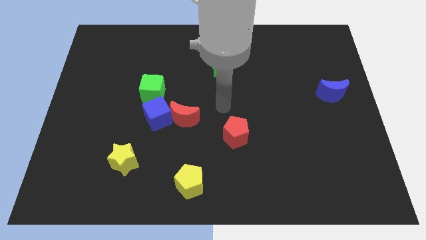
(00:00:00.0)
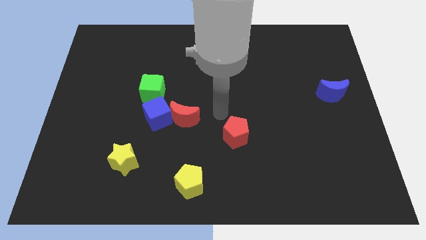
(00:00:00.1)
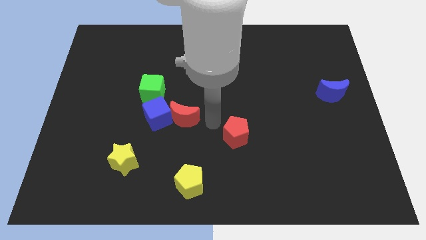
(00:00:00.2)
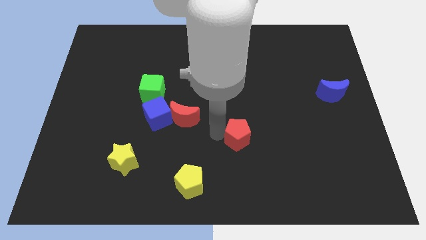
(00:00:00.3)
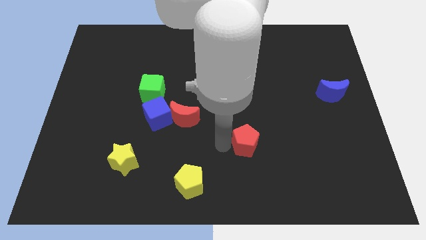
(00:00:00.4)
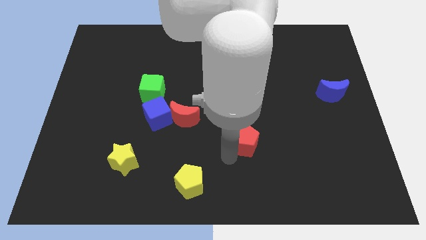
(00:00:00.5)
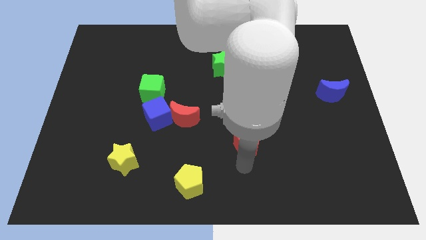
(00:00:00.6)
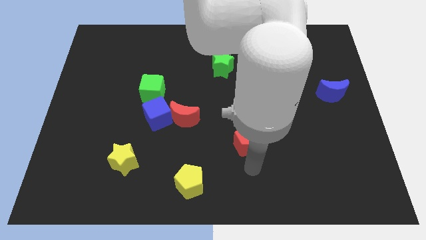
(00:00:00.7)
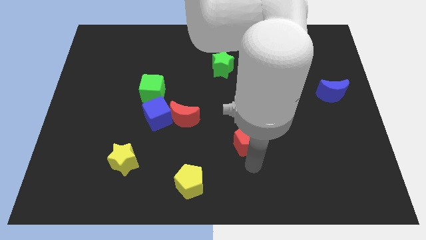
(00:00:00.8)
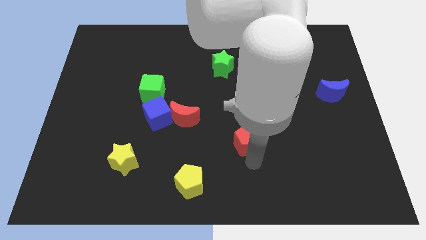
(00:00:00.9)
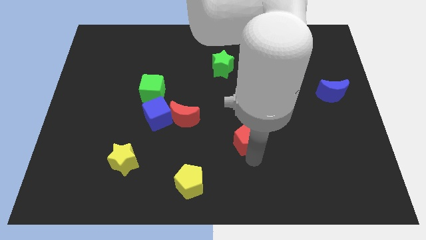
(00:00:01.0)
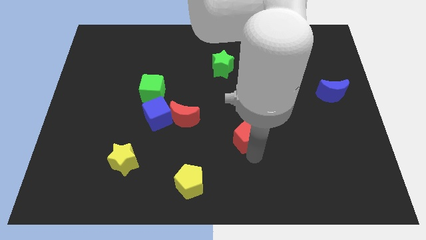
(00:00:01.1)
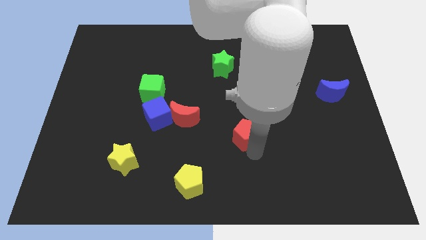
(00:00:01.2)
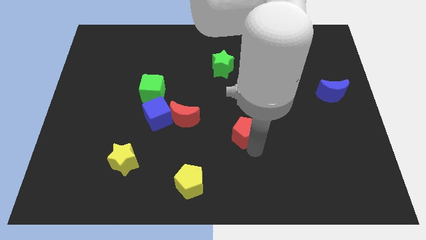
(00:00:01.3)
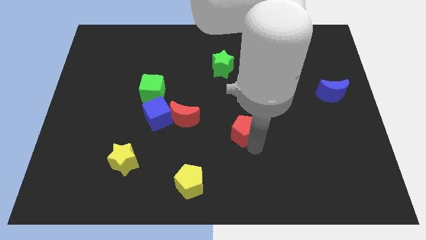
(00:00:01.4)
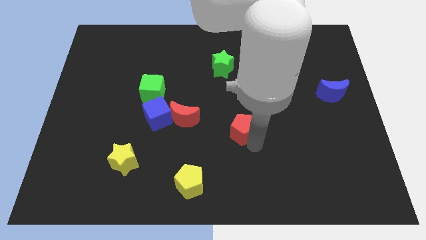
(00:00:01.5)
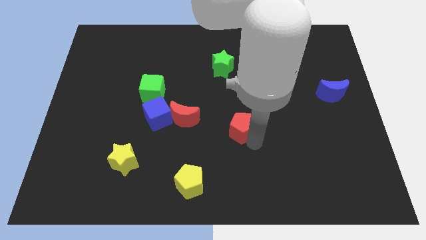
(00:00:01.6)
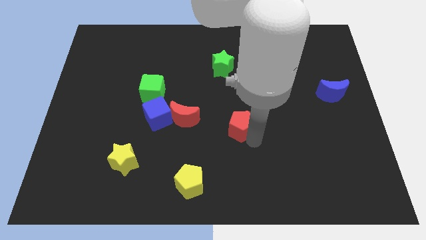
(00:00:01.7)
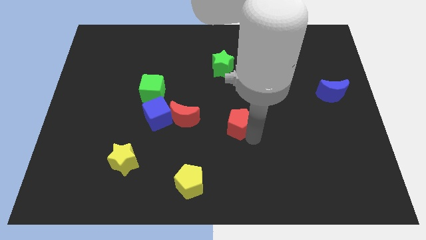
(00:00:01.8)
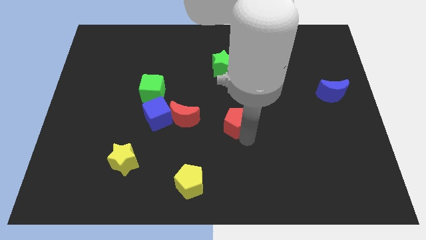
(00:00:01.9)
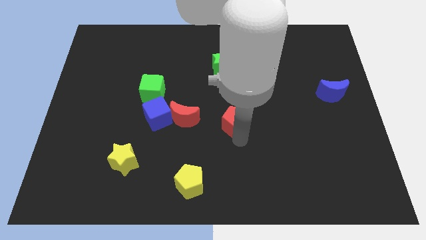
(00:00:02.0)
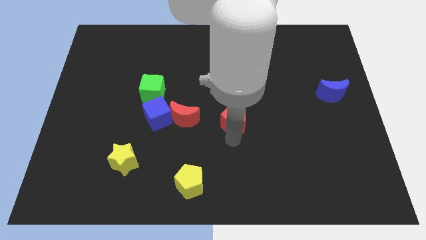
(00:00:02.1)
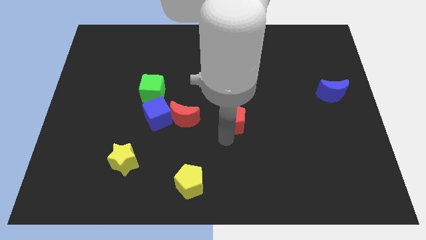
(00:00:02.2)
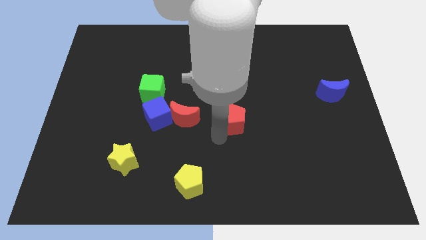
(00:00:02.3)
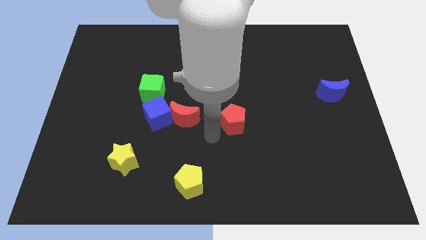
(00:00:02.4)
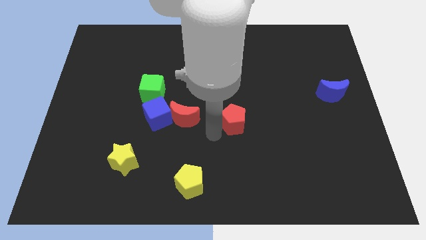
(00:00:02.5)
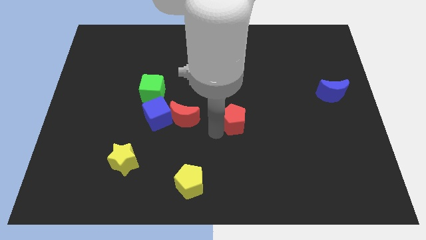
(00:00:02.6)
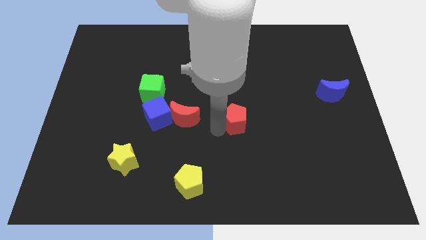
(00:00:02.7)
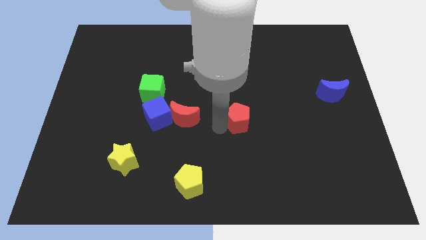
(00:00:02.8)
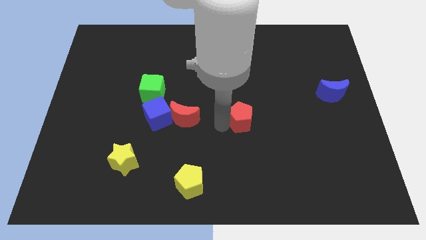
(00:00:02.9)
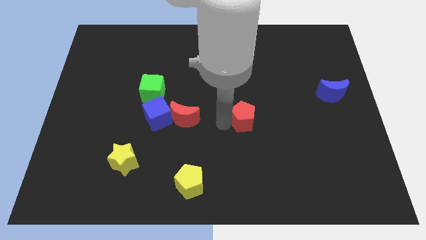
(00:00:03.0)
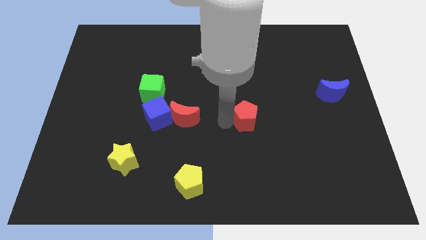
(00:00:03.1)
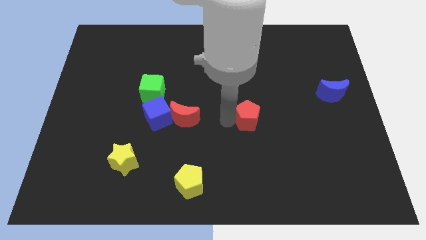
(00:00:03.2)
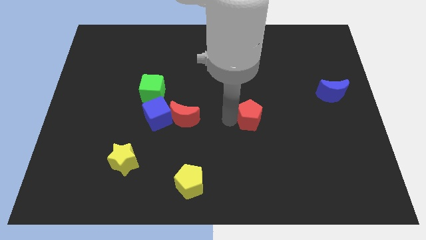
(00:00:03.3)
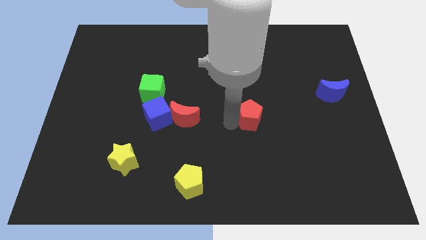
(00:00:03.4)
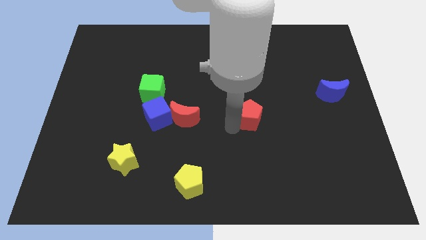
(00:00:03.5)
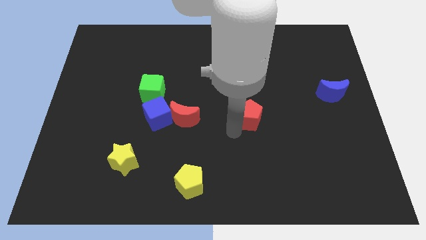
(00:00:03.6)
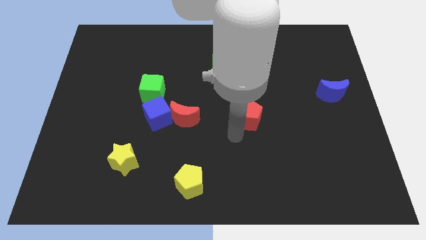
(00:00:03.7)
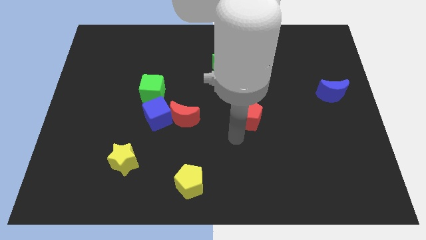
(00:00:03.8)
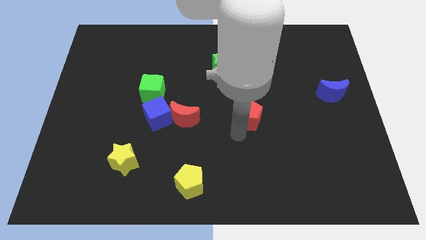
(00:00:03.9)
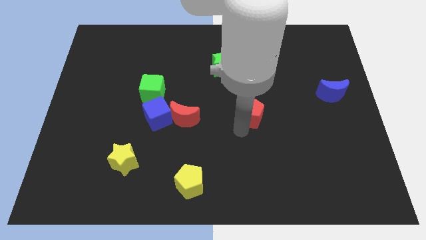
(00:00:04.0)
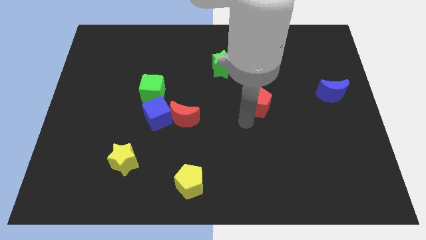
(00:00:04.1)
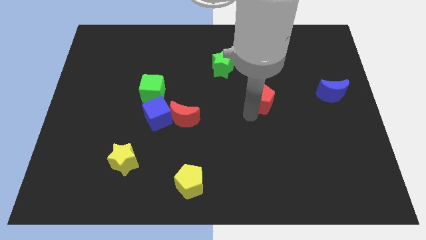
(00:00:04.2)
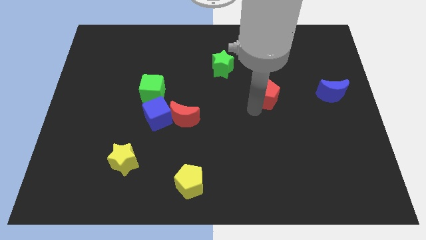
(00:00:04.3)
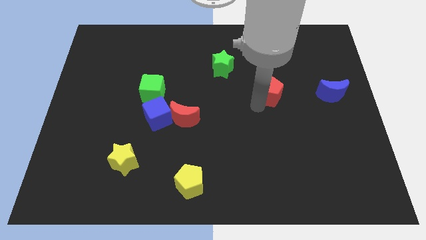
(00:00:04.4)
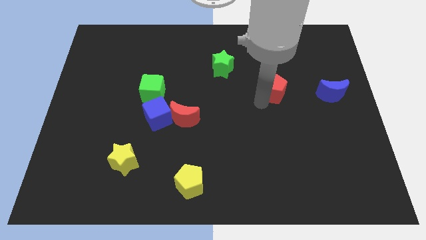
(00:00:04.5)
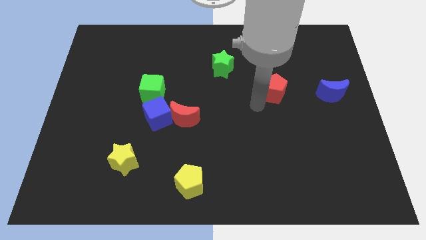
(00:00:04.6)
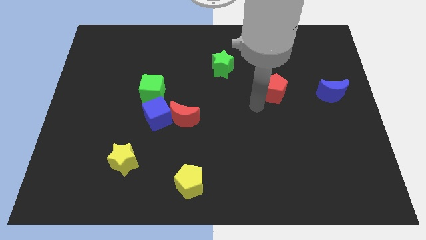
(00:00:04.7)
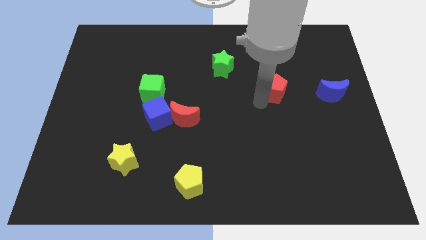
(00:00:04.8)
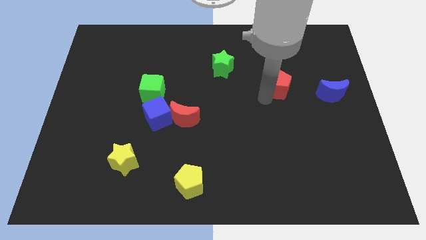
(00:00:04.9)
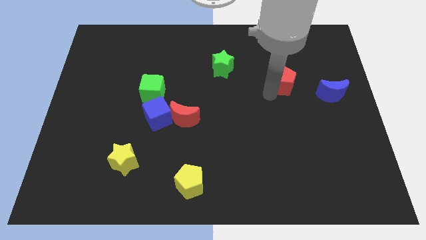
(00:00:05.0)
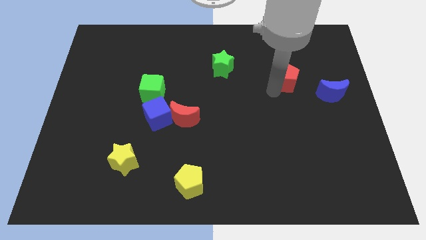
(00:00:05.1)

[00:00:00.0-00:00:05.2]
move the red pentagon up and then right

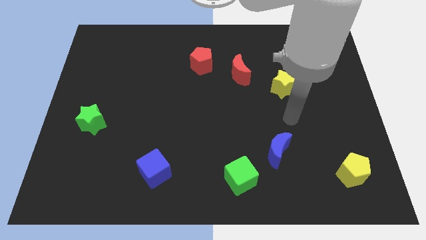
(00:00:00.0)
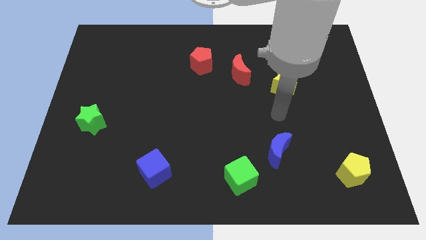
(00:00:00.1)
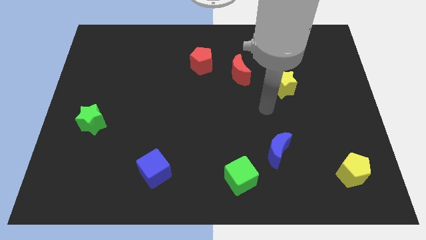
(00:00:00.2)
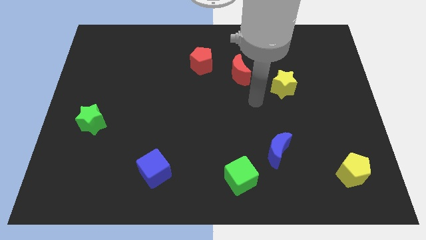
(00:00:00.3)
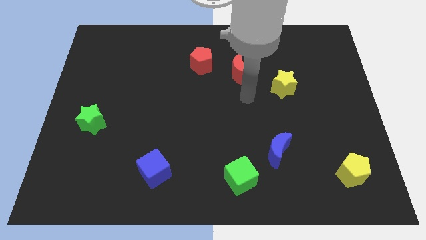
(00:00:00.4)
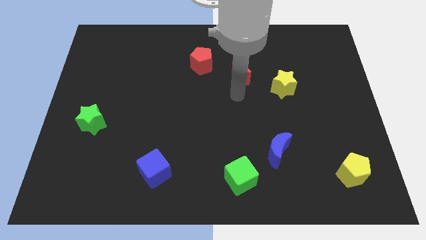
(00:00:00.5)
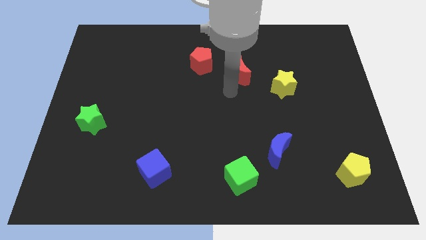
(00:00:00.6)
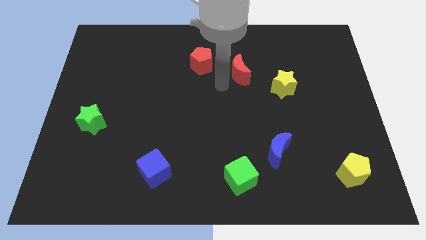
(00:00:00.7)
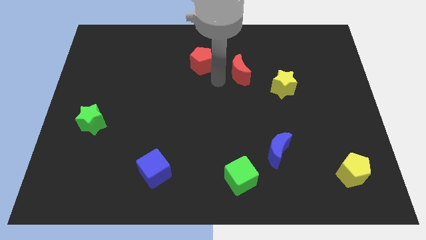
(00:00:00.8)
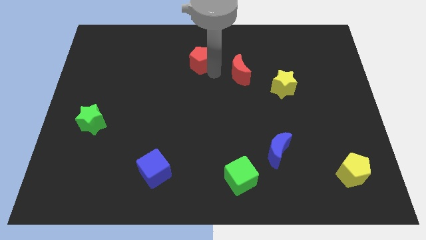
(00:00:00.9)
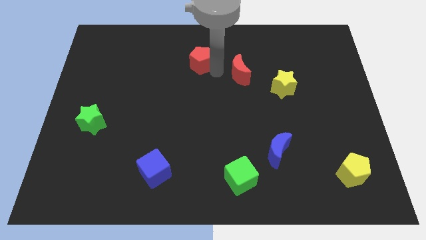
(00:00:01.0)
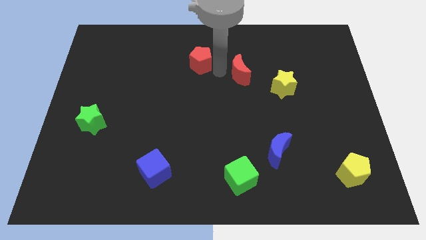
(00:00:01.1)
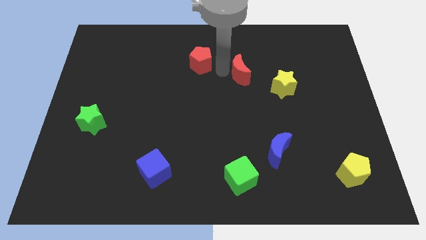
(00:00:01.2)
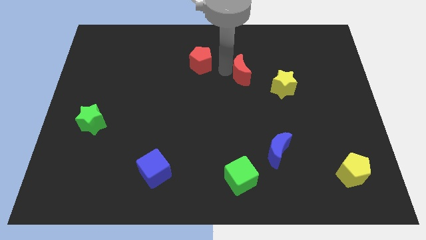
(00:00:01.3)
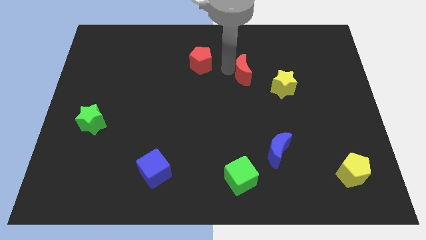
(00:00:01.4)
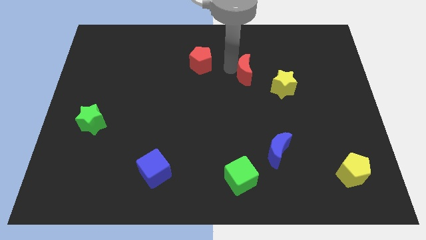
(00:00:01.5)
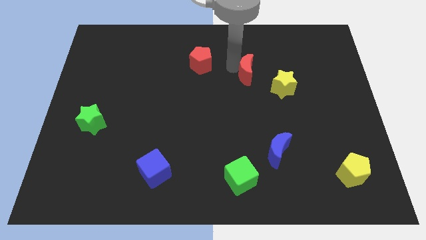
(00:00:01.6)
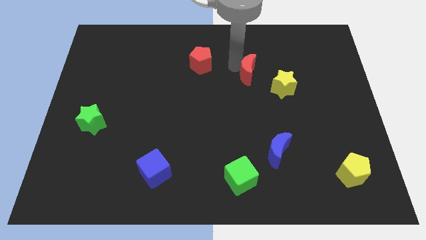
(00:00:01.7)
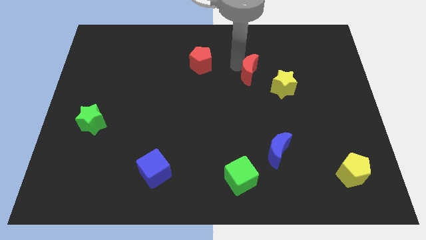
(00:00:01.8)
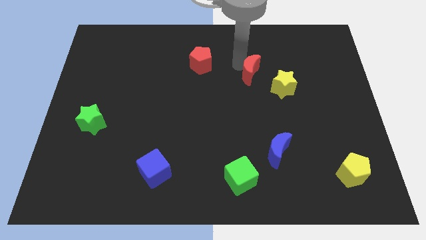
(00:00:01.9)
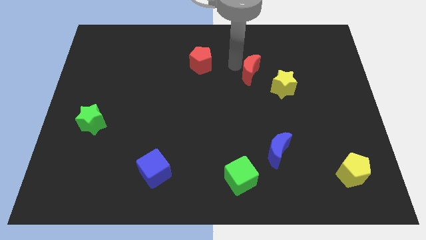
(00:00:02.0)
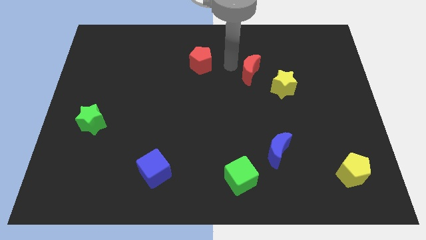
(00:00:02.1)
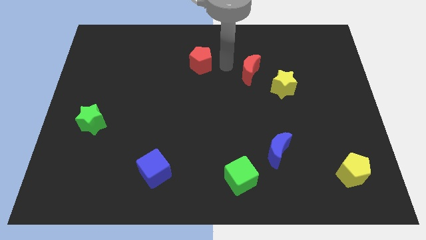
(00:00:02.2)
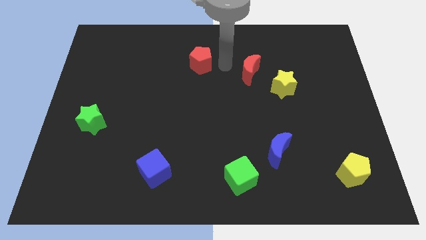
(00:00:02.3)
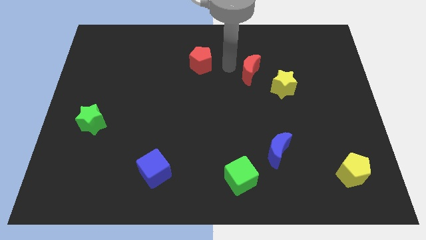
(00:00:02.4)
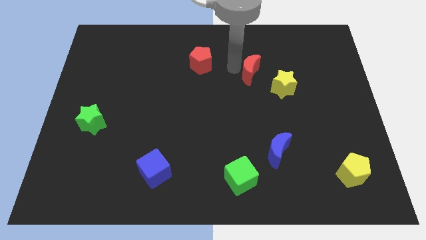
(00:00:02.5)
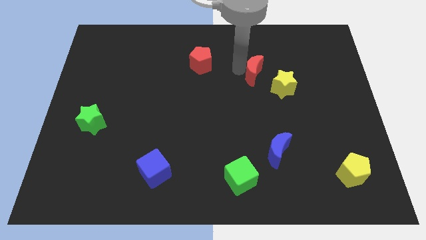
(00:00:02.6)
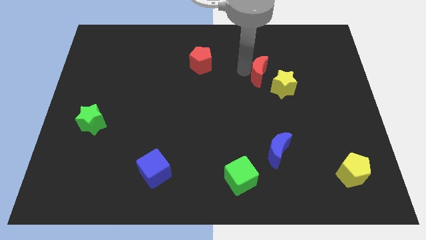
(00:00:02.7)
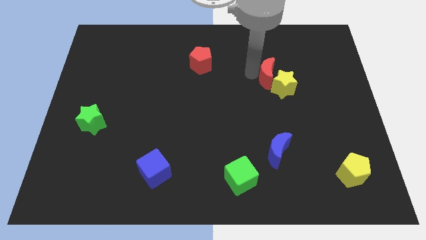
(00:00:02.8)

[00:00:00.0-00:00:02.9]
push the red moon to the right slightly

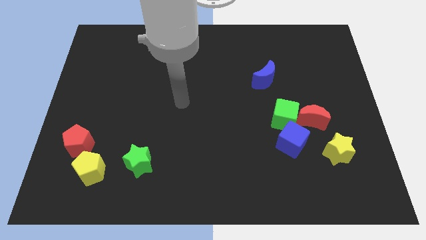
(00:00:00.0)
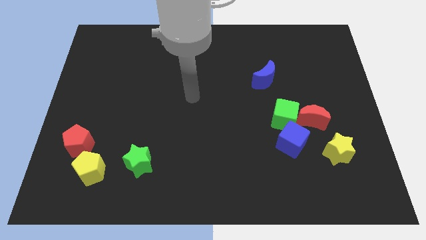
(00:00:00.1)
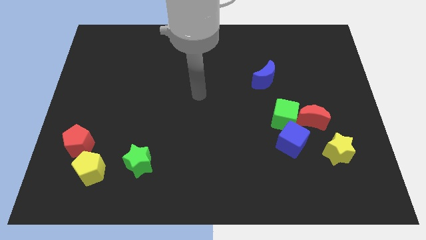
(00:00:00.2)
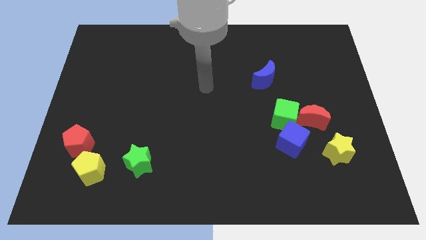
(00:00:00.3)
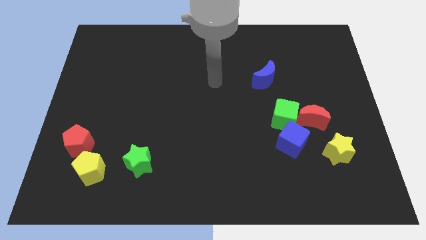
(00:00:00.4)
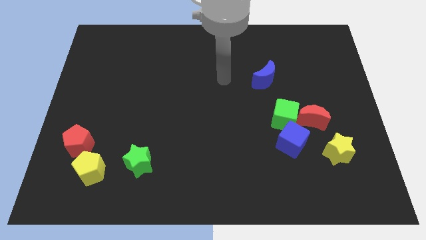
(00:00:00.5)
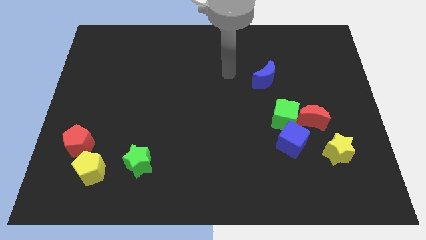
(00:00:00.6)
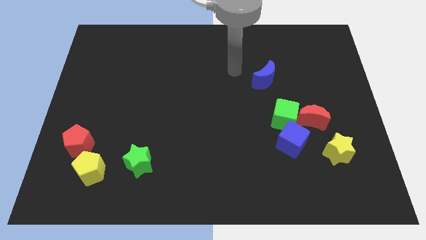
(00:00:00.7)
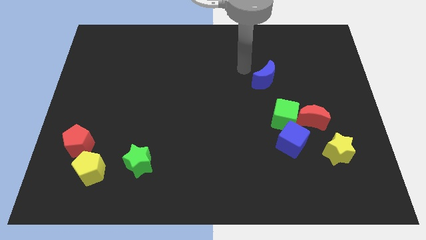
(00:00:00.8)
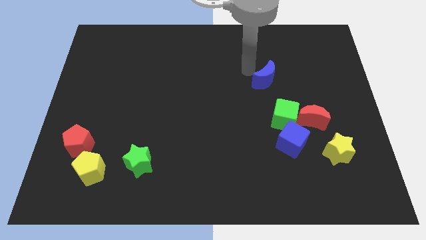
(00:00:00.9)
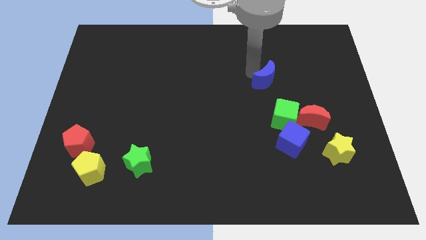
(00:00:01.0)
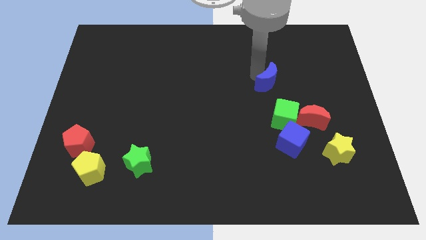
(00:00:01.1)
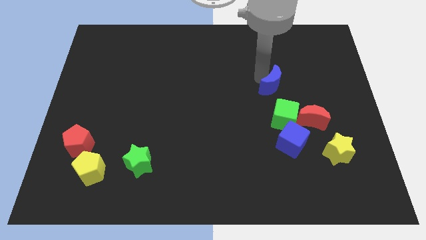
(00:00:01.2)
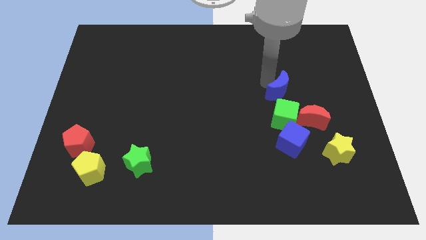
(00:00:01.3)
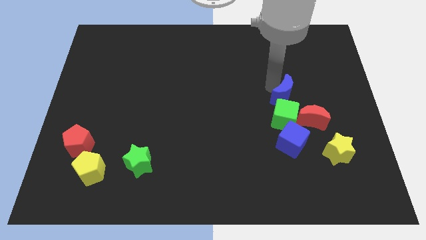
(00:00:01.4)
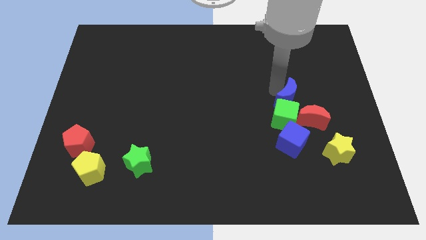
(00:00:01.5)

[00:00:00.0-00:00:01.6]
move the blue moon slightly diagonally down and to the right
